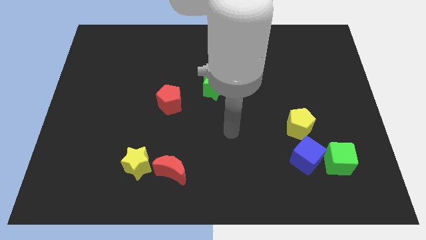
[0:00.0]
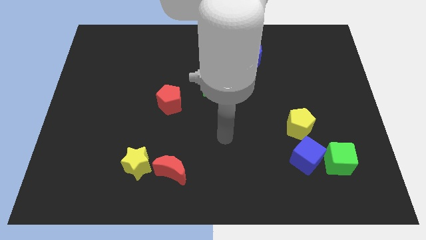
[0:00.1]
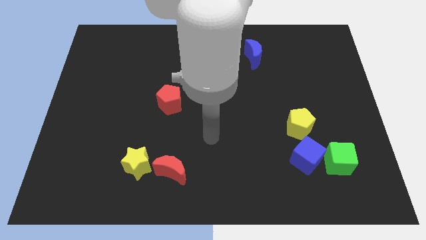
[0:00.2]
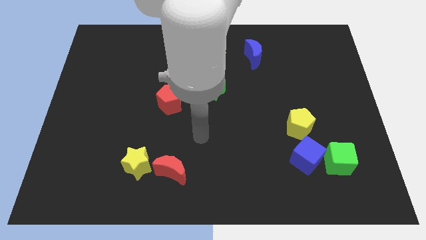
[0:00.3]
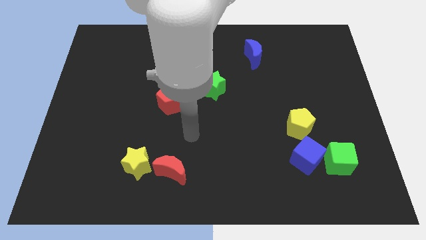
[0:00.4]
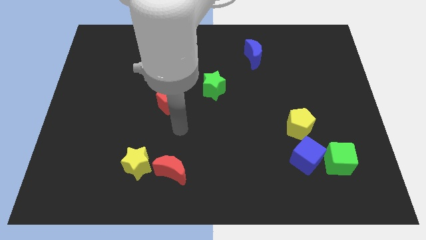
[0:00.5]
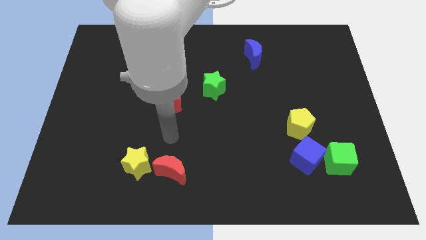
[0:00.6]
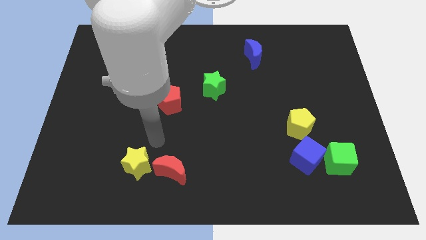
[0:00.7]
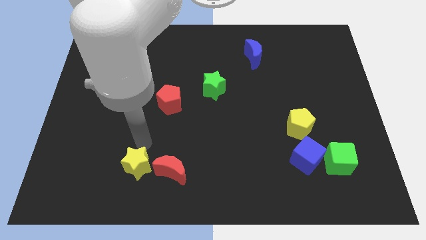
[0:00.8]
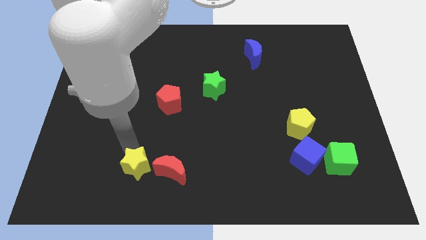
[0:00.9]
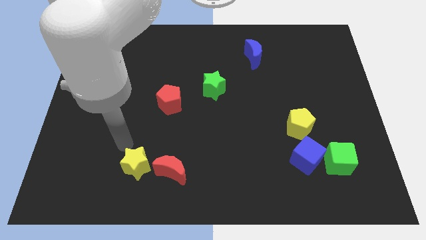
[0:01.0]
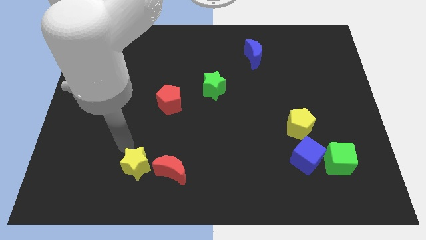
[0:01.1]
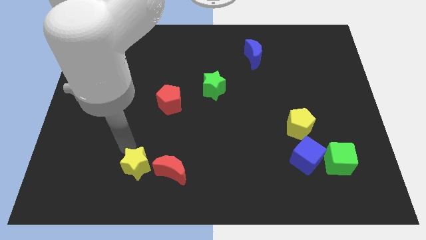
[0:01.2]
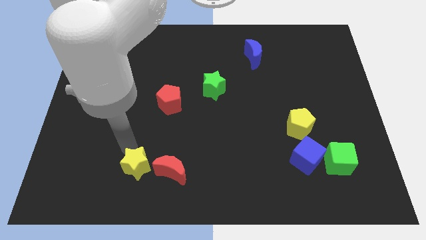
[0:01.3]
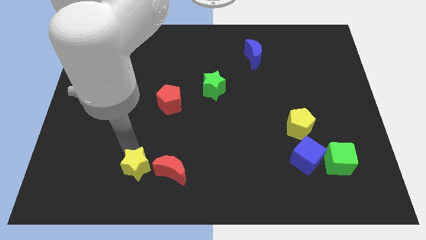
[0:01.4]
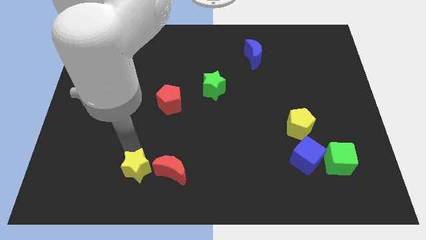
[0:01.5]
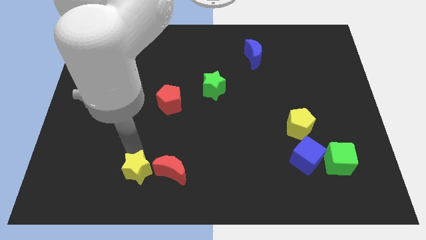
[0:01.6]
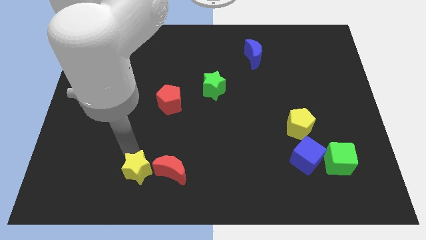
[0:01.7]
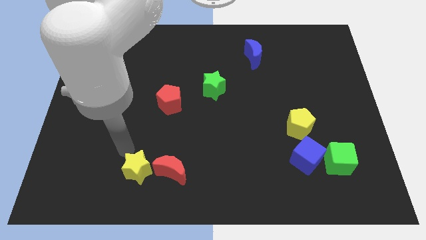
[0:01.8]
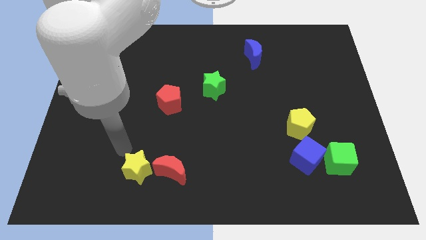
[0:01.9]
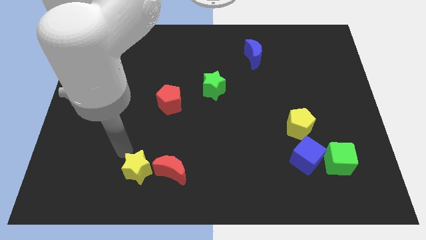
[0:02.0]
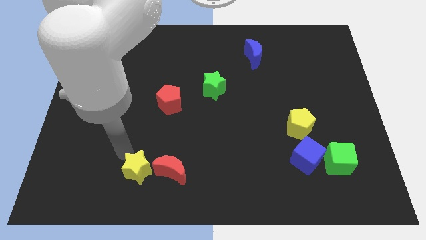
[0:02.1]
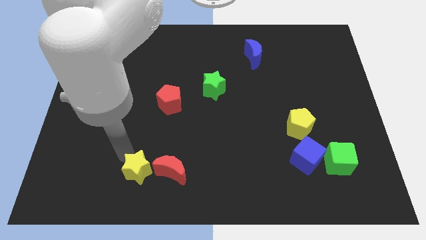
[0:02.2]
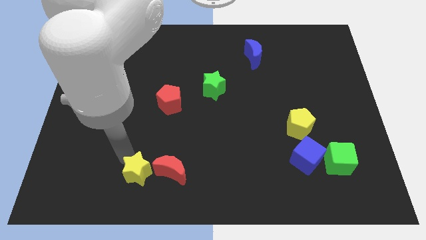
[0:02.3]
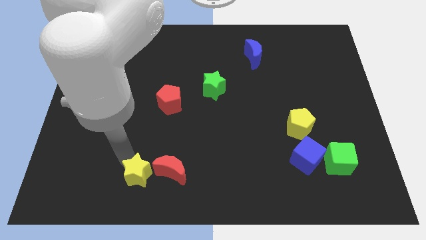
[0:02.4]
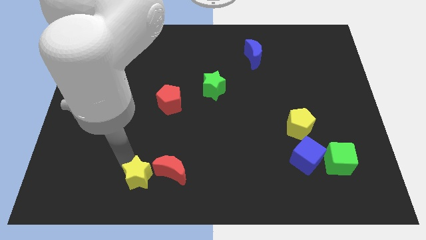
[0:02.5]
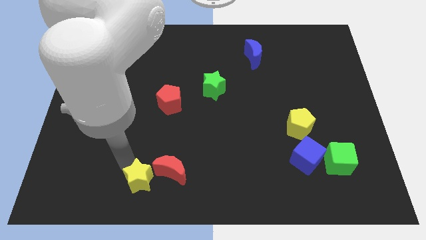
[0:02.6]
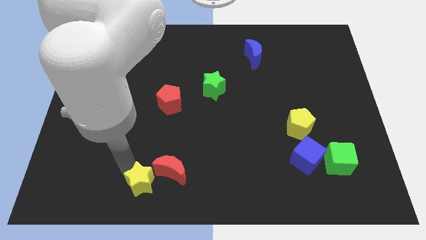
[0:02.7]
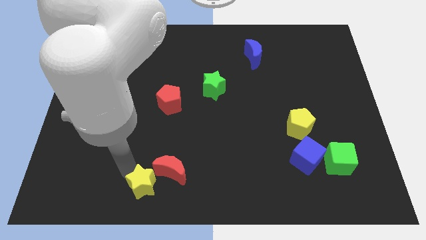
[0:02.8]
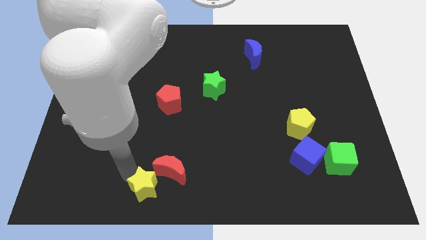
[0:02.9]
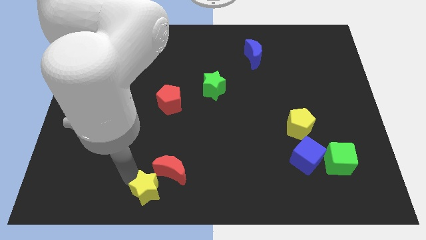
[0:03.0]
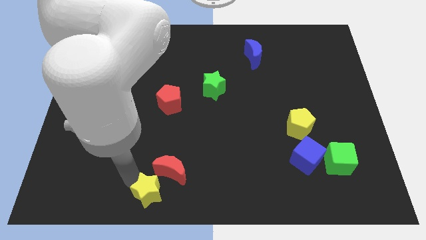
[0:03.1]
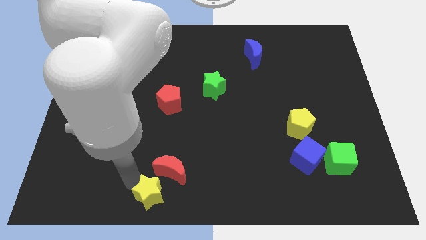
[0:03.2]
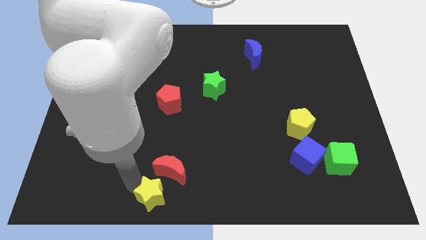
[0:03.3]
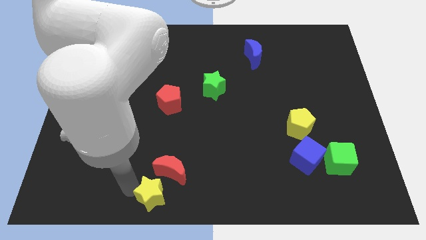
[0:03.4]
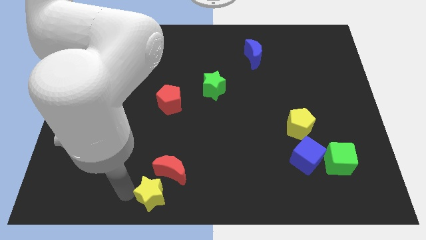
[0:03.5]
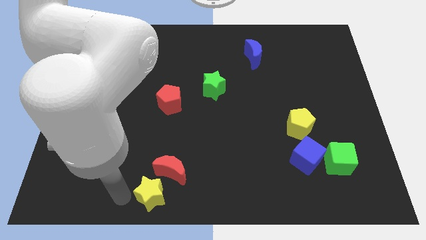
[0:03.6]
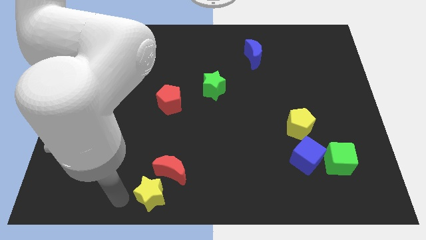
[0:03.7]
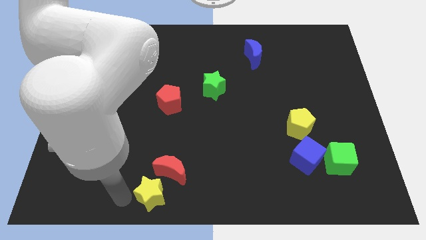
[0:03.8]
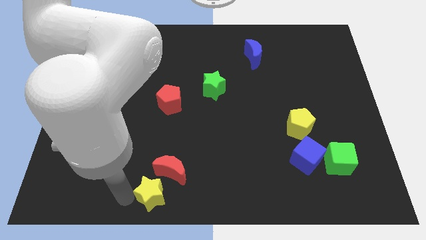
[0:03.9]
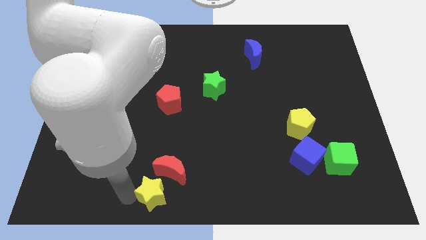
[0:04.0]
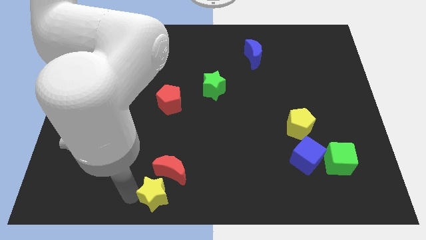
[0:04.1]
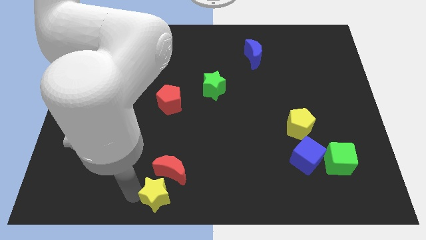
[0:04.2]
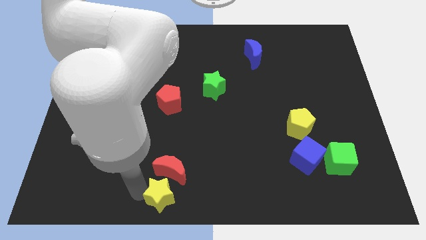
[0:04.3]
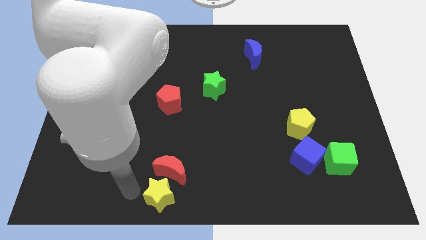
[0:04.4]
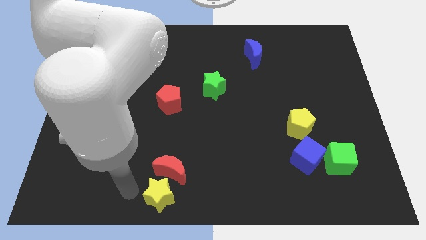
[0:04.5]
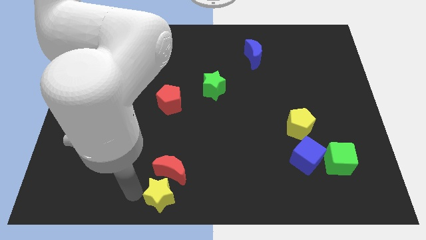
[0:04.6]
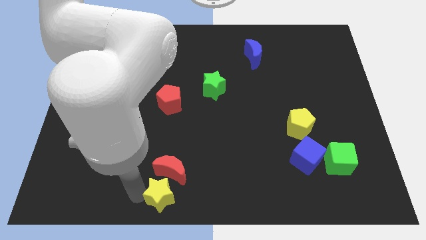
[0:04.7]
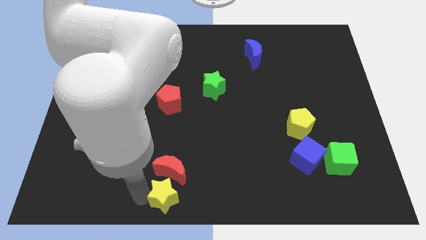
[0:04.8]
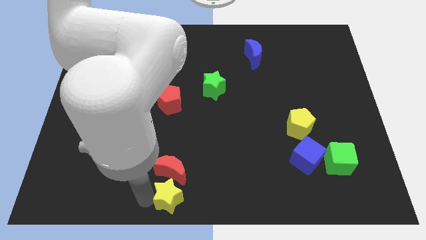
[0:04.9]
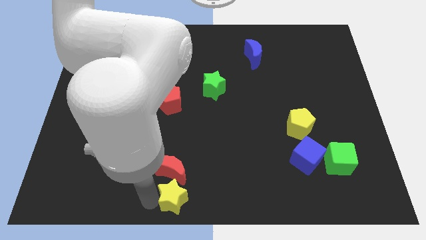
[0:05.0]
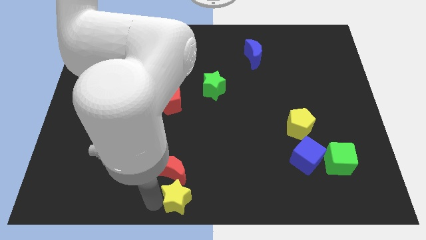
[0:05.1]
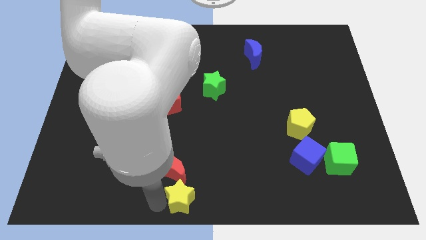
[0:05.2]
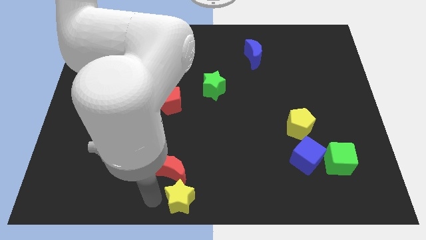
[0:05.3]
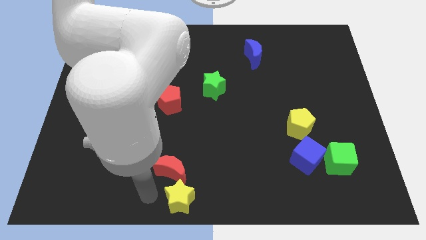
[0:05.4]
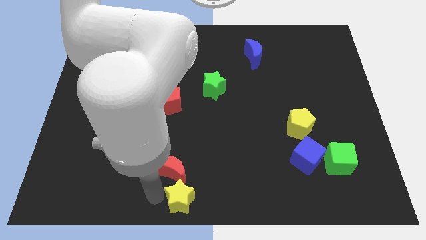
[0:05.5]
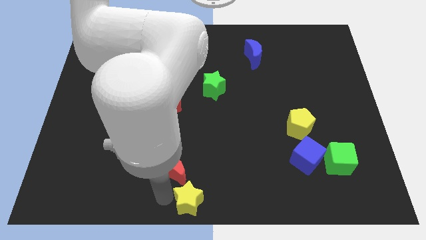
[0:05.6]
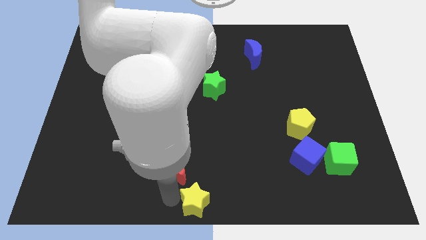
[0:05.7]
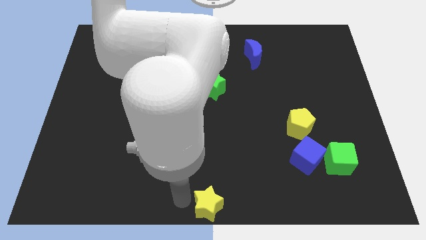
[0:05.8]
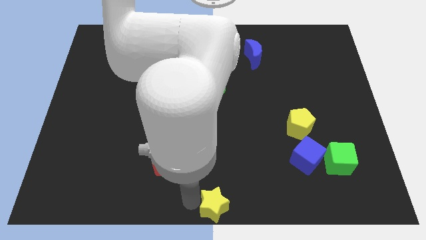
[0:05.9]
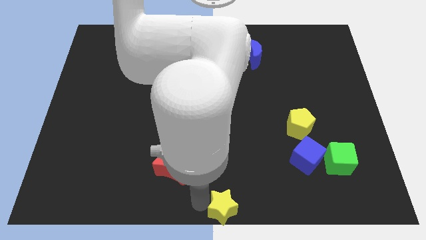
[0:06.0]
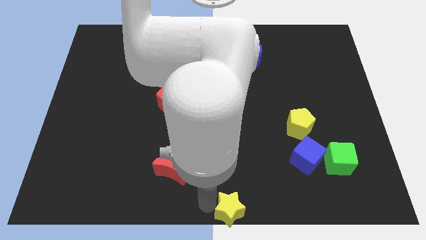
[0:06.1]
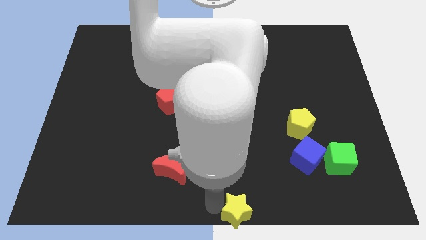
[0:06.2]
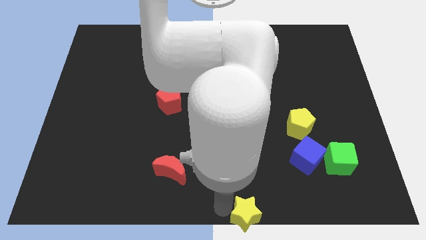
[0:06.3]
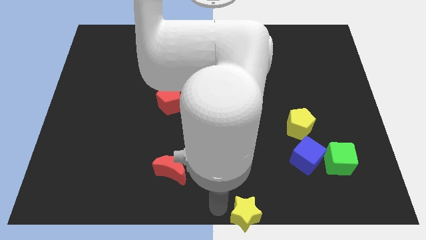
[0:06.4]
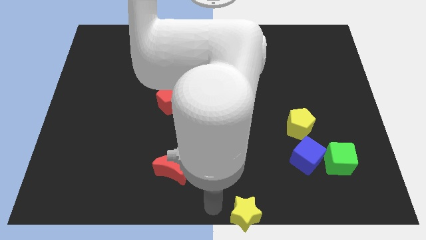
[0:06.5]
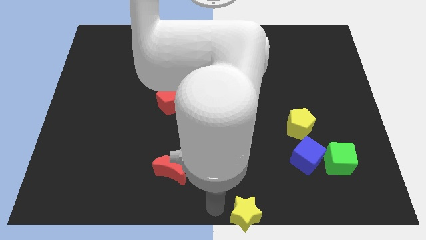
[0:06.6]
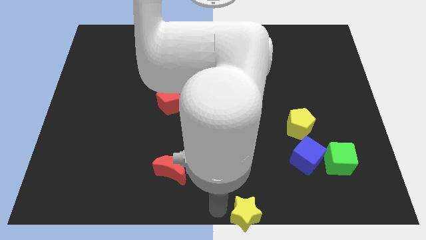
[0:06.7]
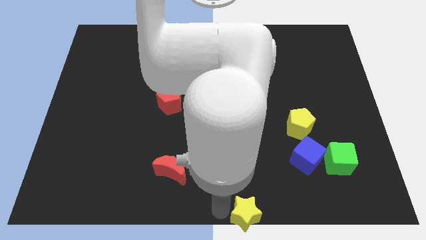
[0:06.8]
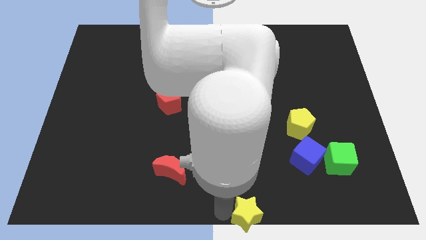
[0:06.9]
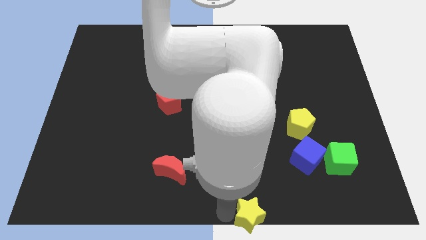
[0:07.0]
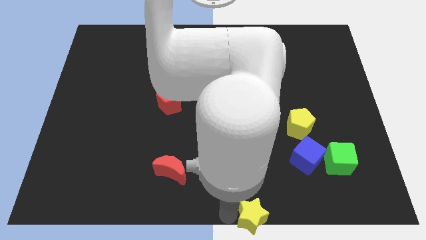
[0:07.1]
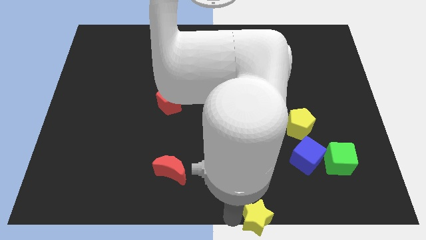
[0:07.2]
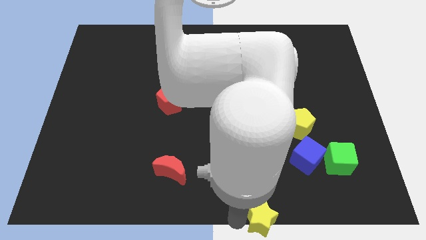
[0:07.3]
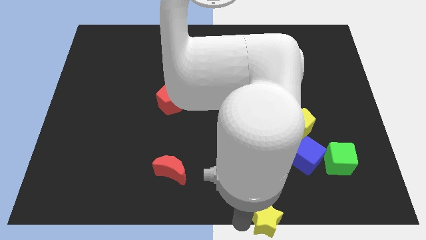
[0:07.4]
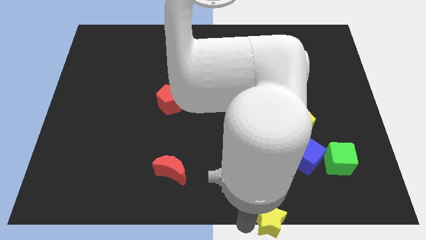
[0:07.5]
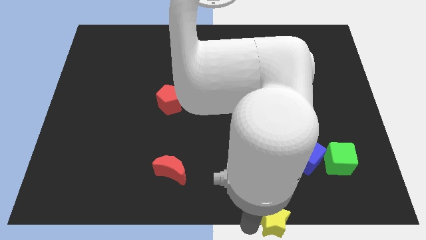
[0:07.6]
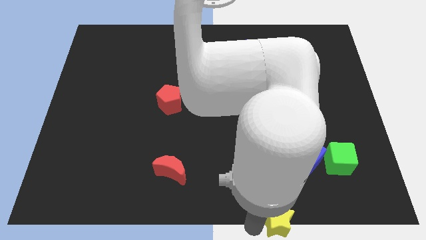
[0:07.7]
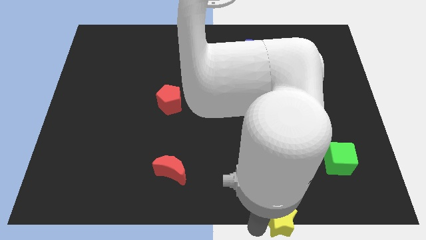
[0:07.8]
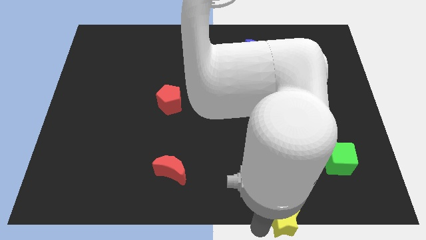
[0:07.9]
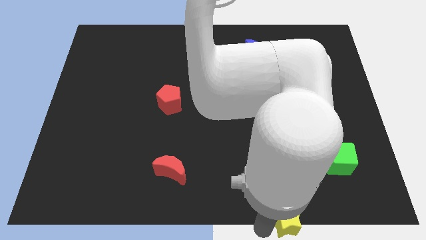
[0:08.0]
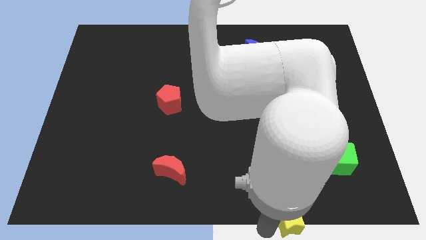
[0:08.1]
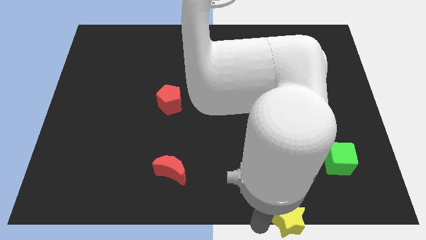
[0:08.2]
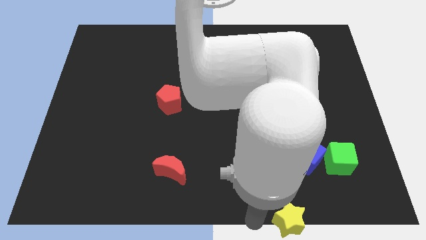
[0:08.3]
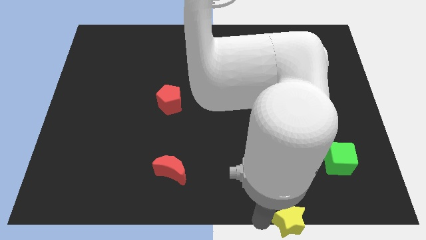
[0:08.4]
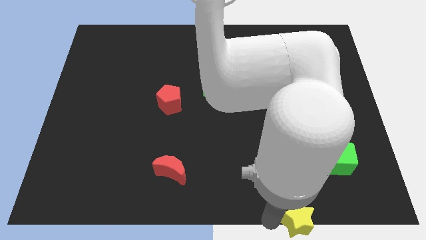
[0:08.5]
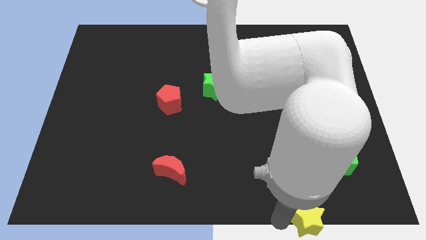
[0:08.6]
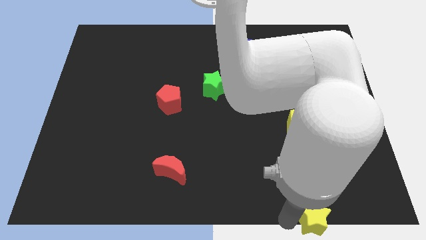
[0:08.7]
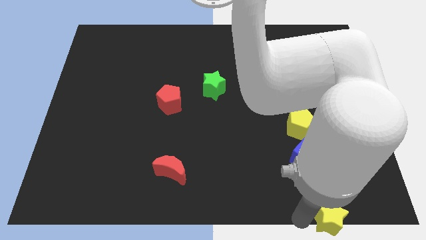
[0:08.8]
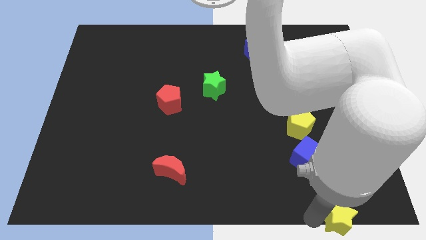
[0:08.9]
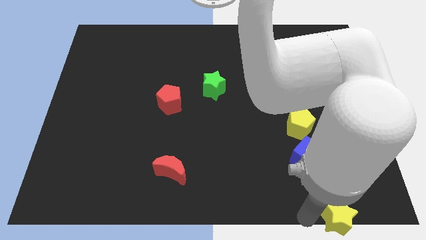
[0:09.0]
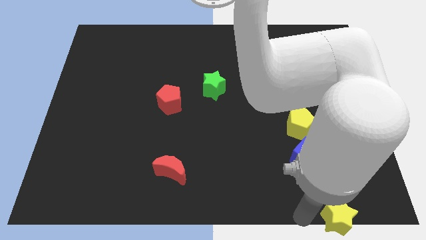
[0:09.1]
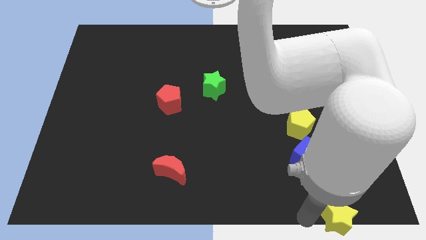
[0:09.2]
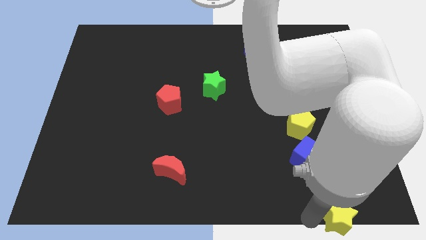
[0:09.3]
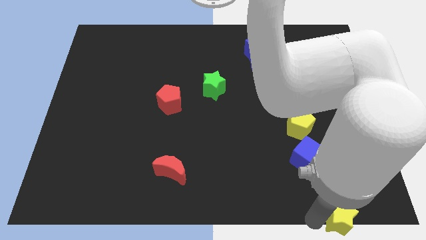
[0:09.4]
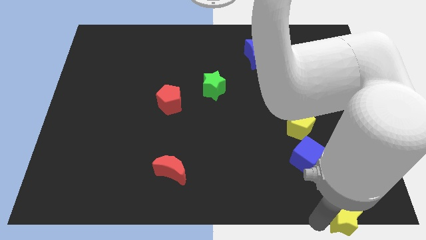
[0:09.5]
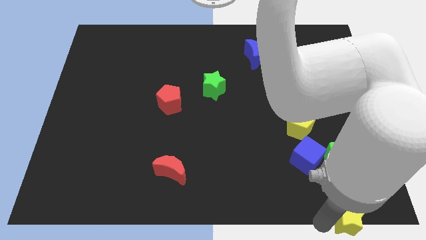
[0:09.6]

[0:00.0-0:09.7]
put the yellow star to the lower right corner
